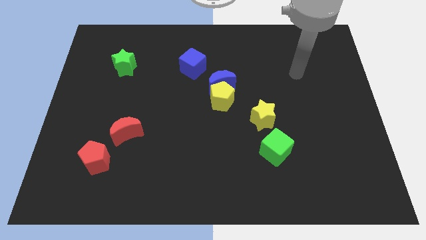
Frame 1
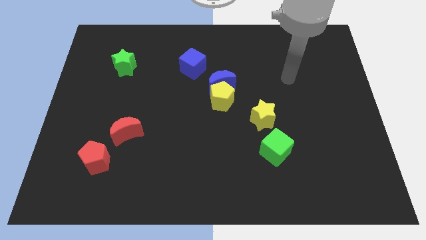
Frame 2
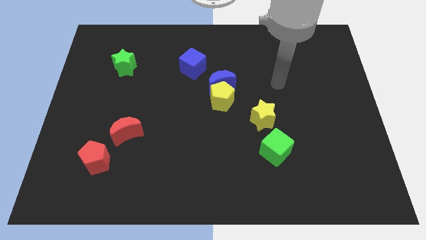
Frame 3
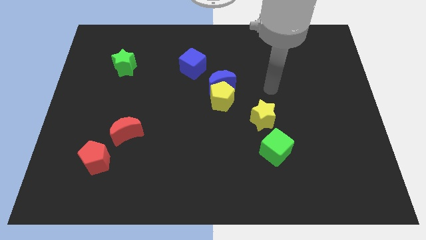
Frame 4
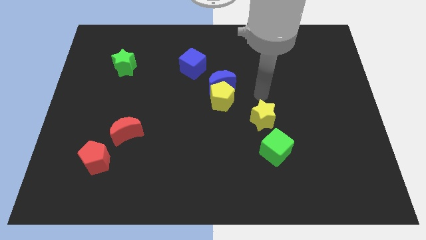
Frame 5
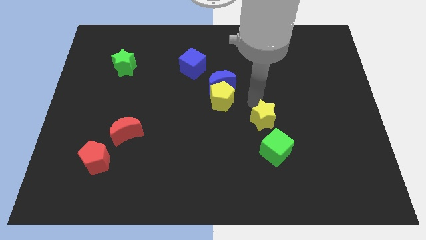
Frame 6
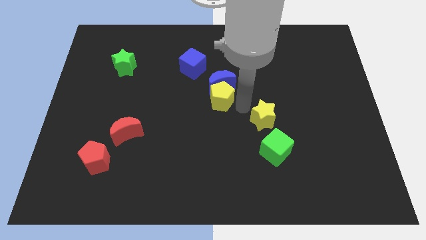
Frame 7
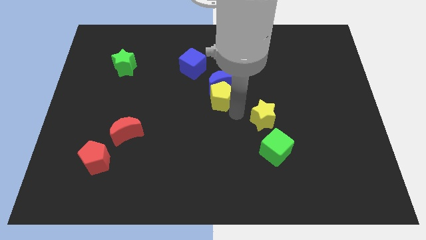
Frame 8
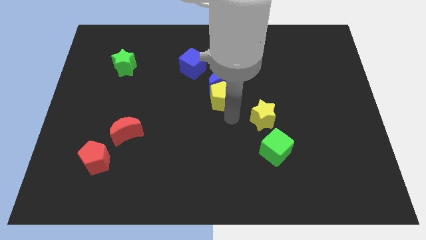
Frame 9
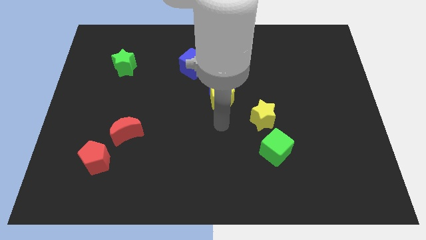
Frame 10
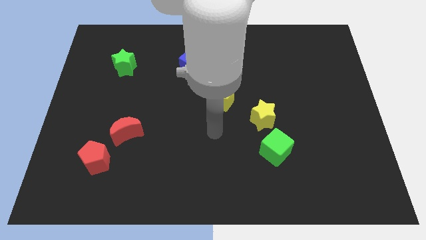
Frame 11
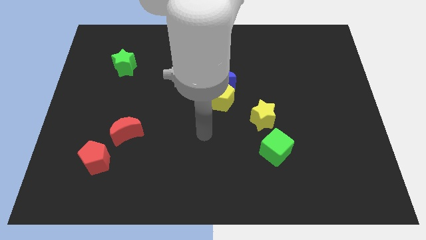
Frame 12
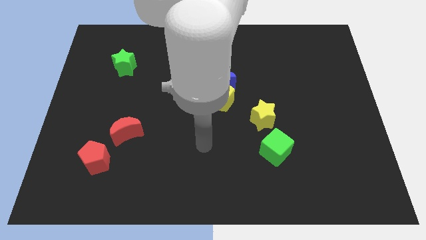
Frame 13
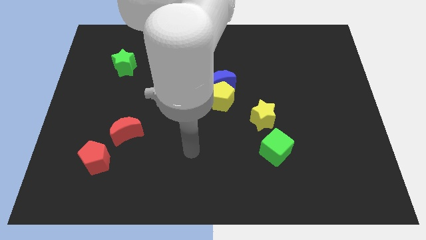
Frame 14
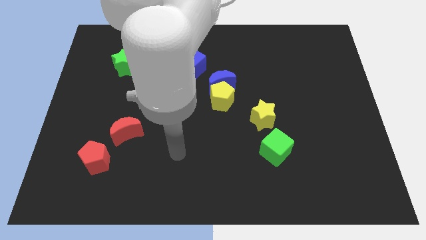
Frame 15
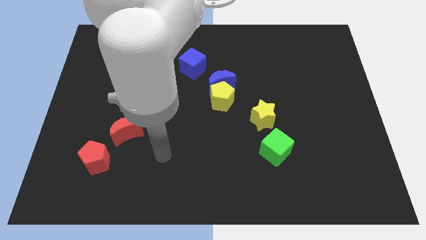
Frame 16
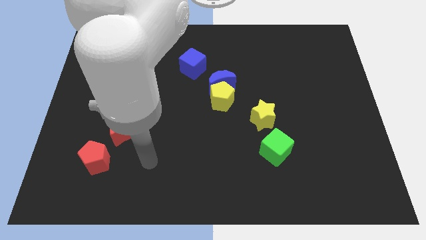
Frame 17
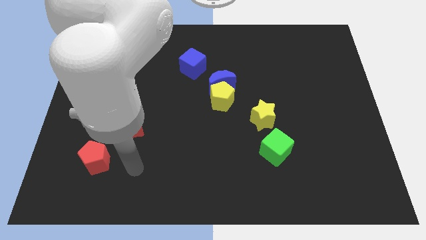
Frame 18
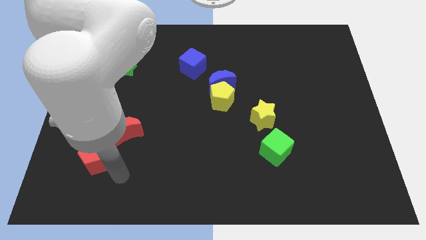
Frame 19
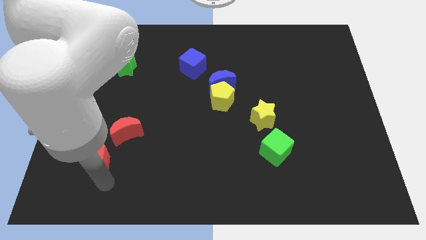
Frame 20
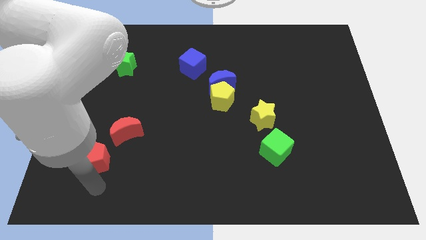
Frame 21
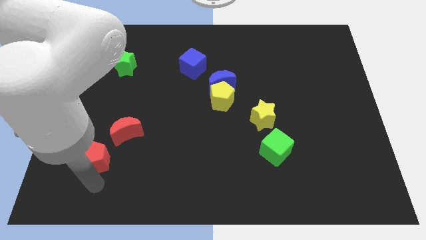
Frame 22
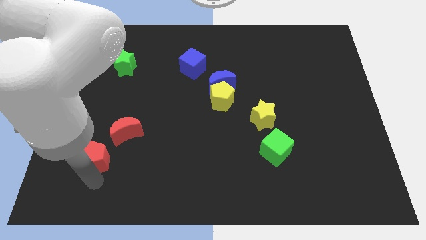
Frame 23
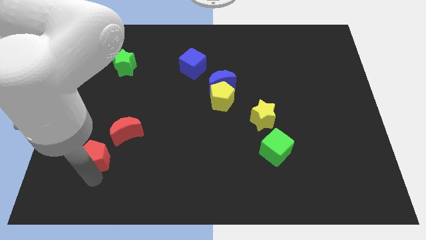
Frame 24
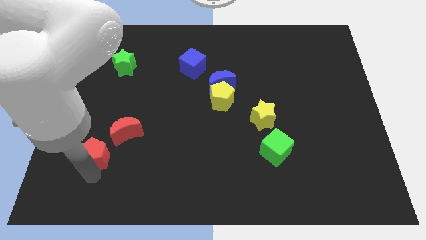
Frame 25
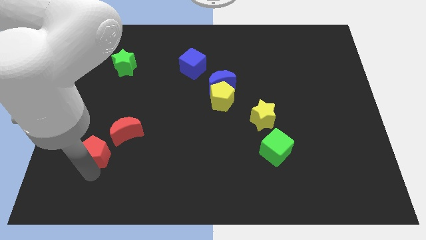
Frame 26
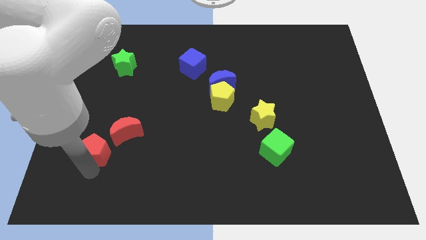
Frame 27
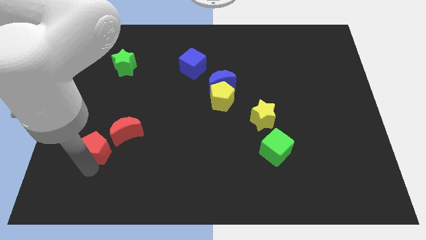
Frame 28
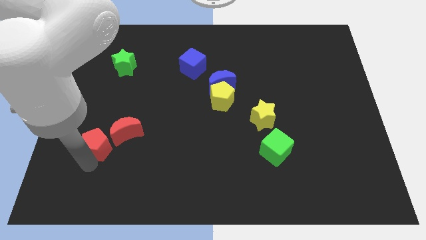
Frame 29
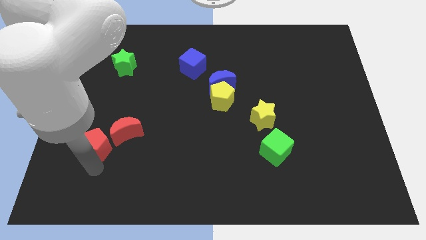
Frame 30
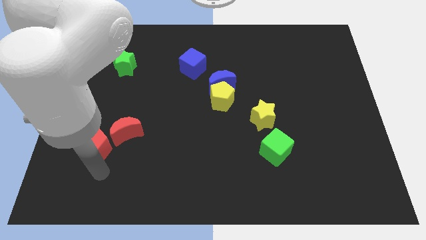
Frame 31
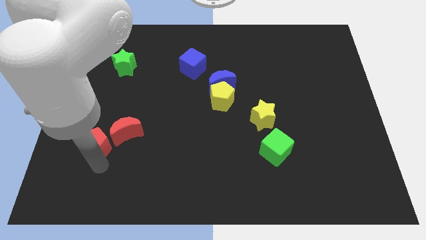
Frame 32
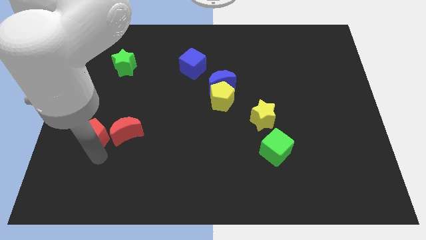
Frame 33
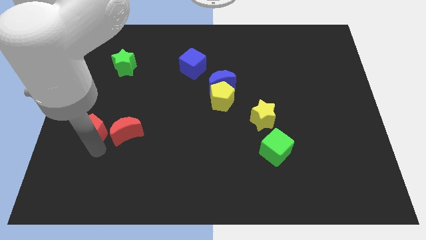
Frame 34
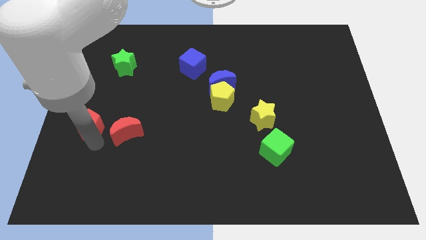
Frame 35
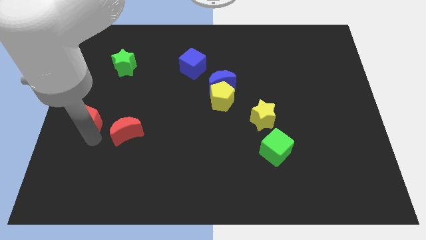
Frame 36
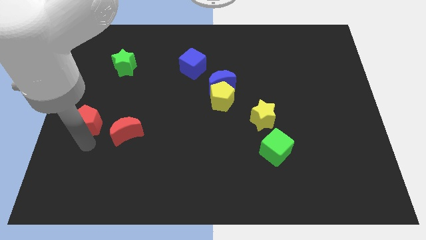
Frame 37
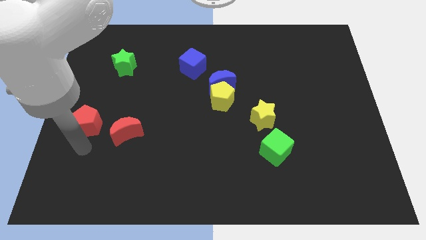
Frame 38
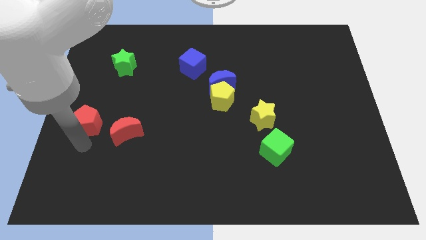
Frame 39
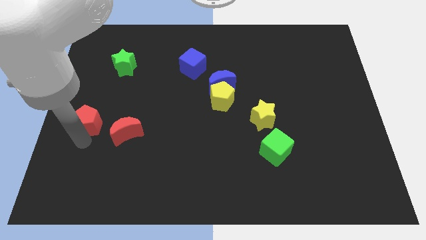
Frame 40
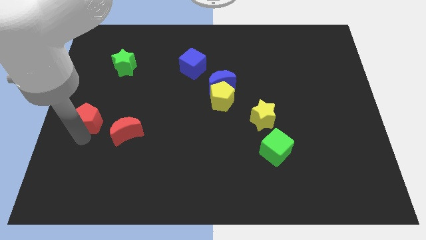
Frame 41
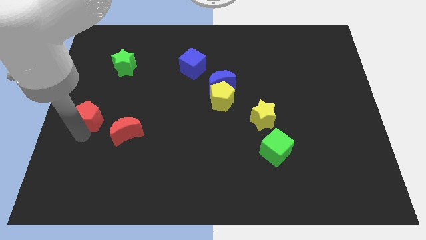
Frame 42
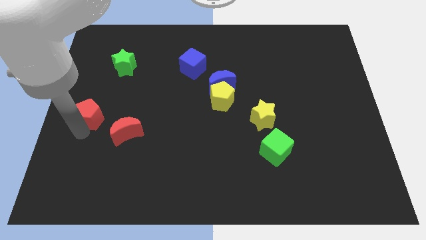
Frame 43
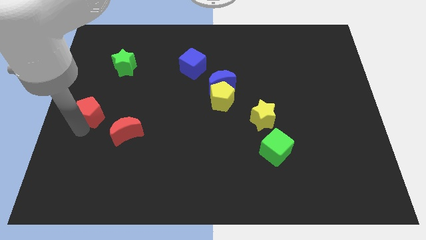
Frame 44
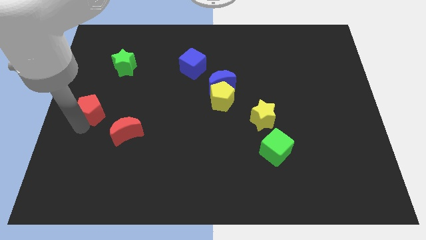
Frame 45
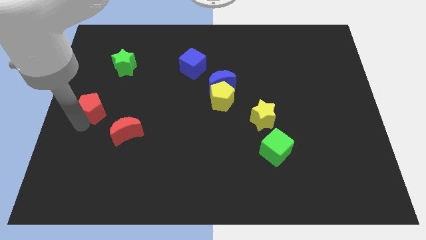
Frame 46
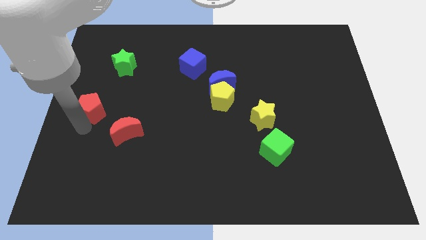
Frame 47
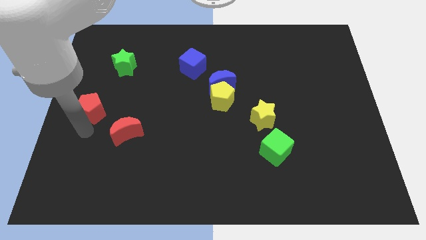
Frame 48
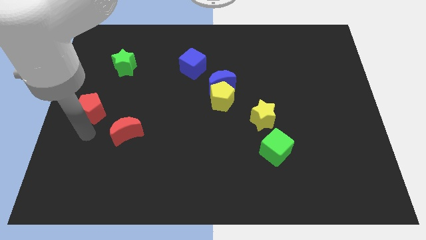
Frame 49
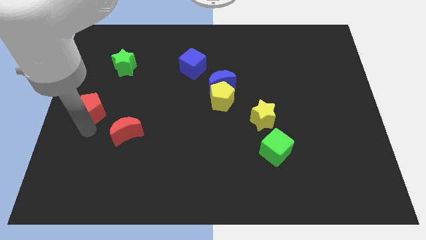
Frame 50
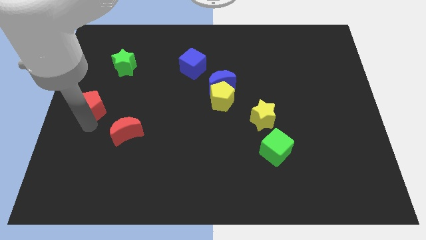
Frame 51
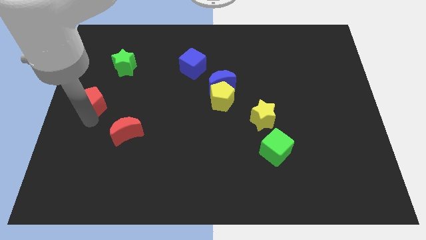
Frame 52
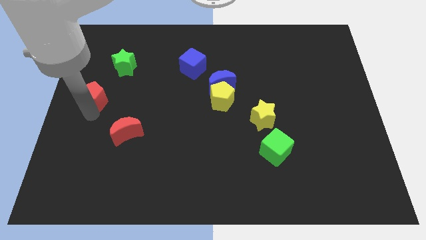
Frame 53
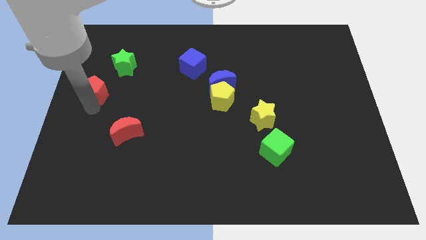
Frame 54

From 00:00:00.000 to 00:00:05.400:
push the red pentagon to the bottom left of the green star

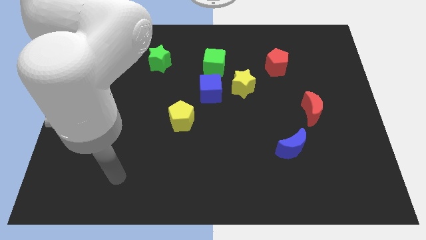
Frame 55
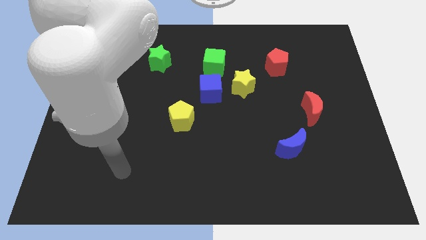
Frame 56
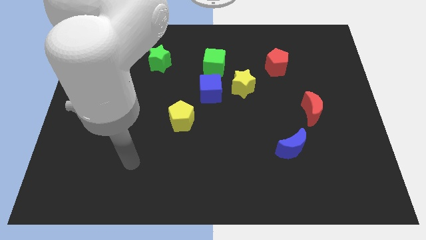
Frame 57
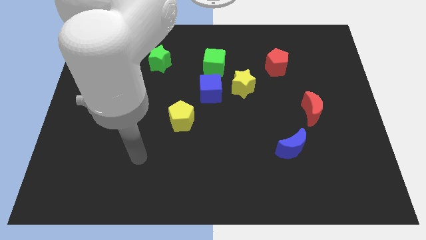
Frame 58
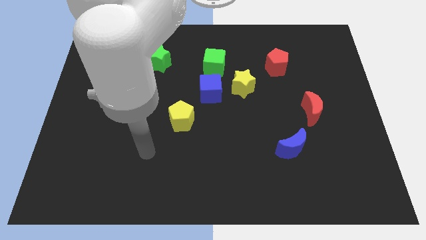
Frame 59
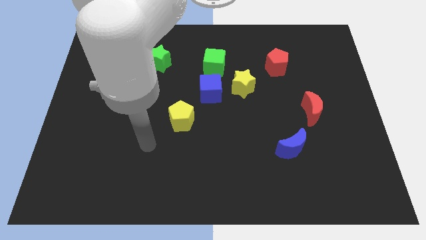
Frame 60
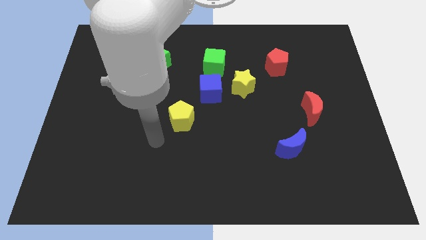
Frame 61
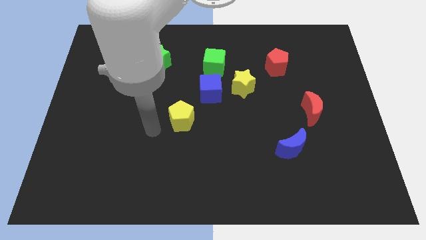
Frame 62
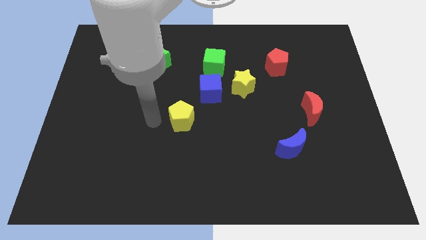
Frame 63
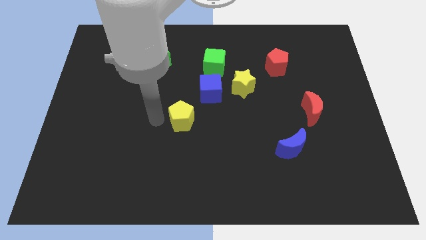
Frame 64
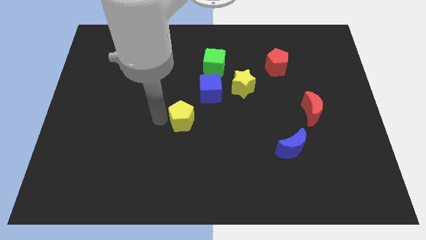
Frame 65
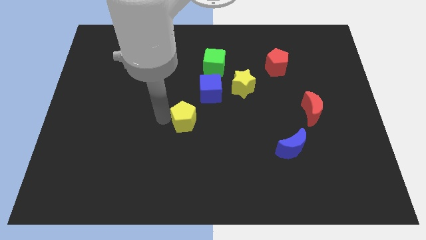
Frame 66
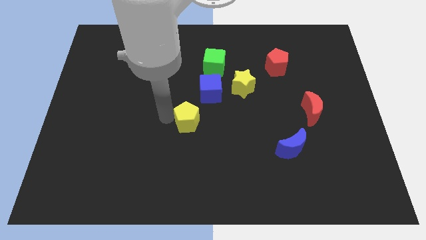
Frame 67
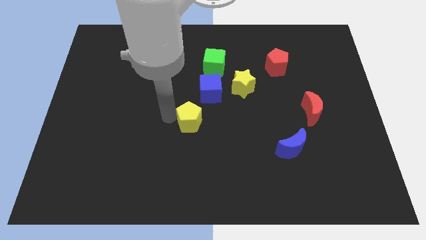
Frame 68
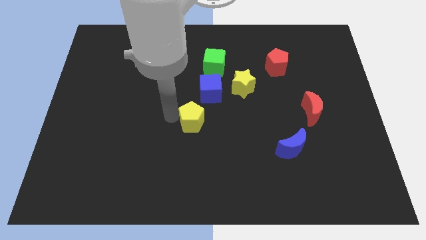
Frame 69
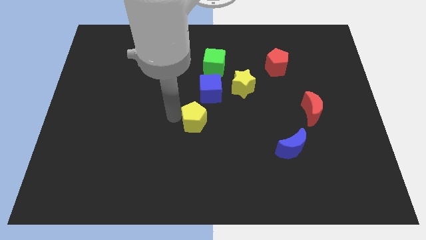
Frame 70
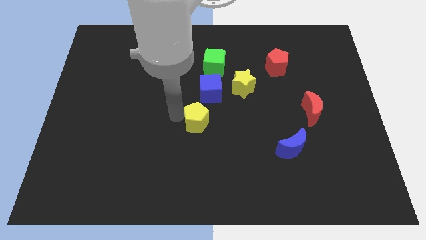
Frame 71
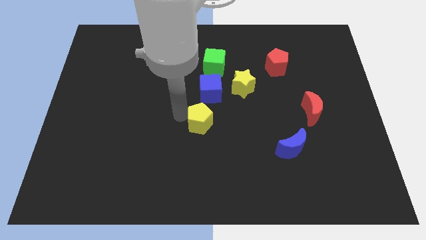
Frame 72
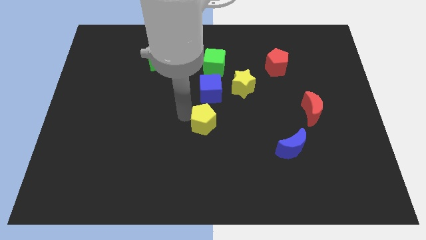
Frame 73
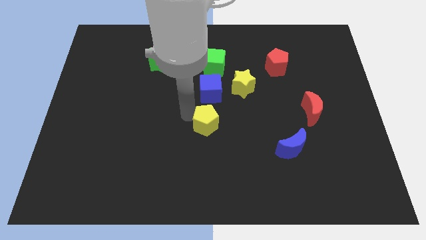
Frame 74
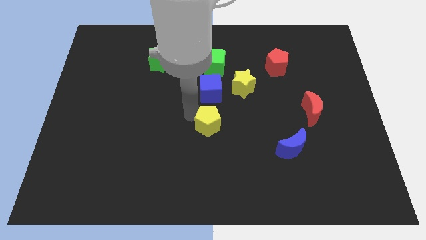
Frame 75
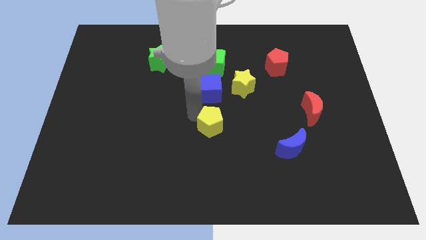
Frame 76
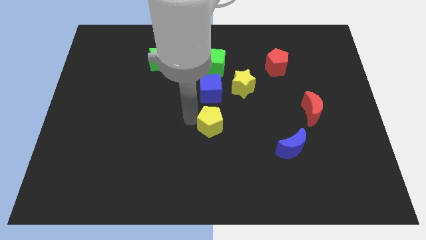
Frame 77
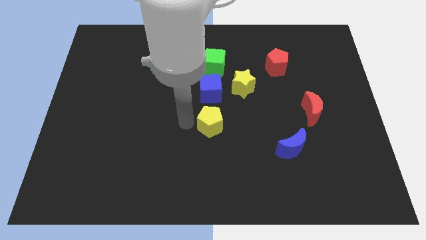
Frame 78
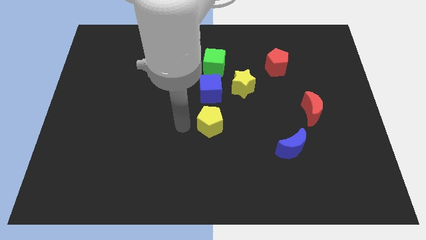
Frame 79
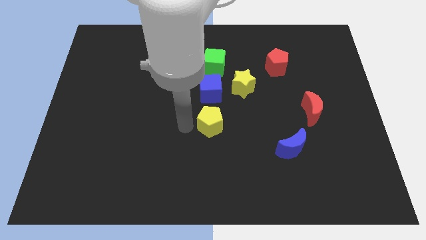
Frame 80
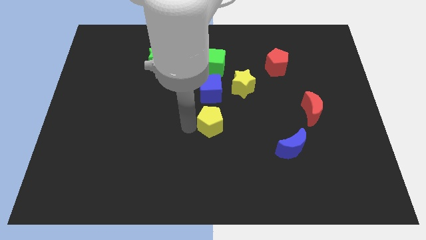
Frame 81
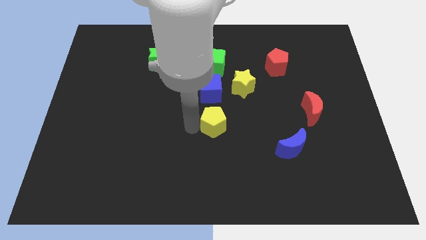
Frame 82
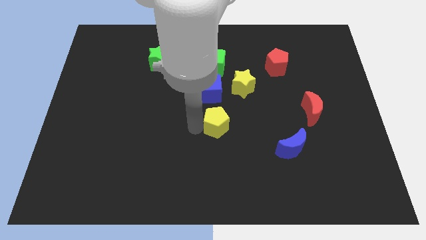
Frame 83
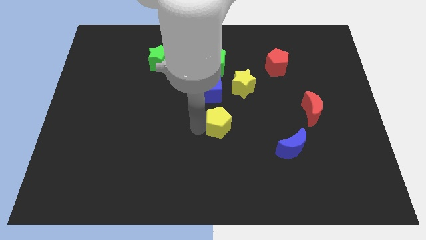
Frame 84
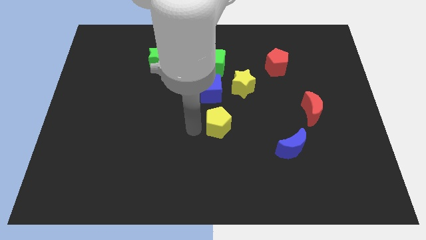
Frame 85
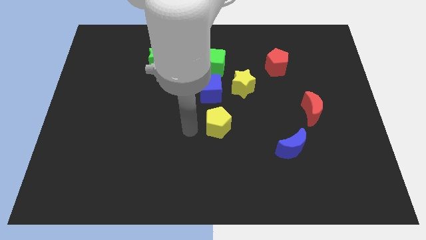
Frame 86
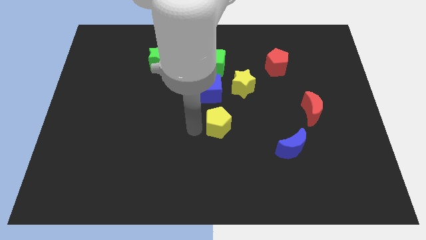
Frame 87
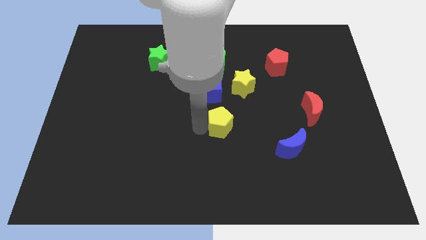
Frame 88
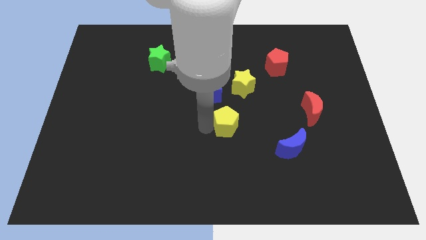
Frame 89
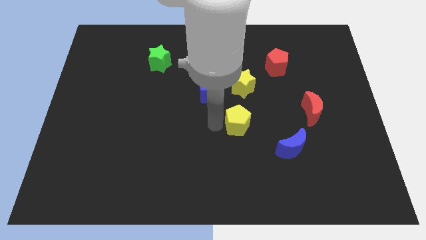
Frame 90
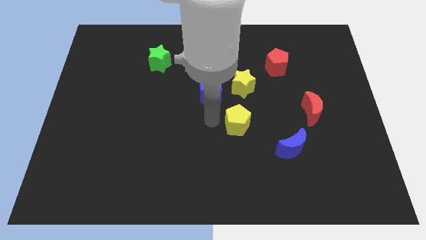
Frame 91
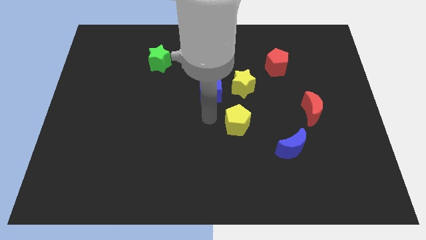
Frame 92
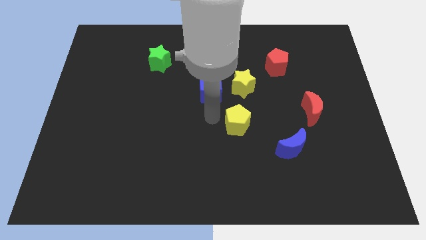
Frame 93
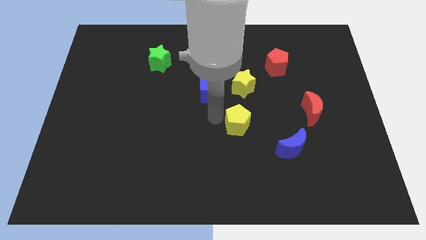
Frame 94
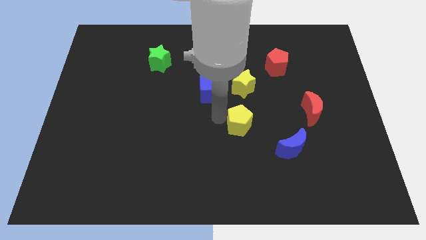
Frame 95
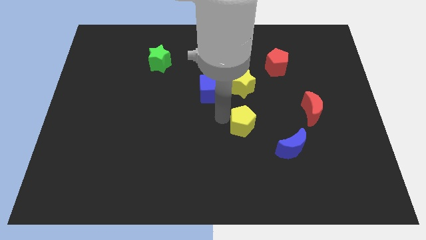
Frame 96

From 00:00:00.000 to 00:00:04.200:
put the yellow pentagon diagonally up and to the left of the blue moon
